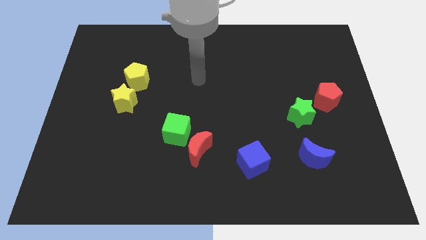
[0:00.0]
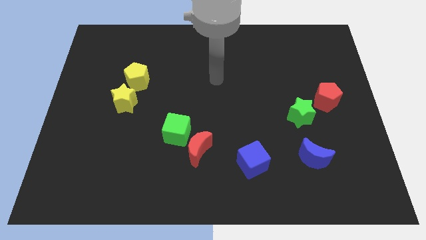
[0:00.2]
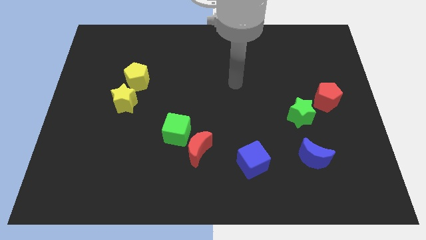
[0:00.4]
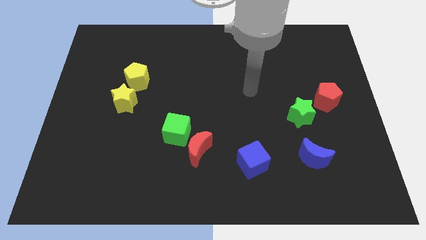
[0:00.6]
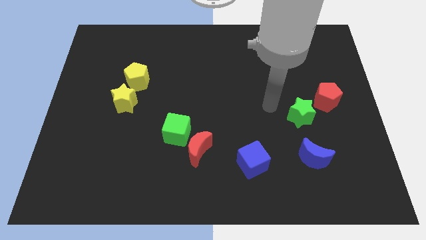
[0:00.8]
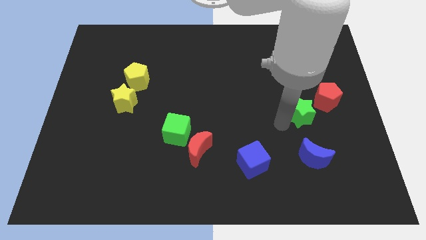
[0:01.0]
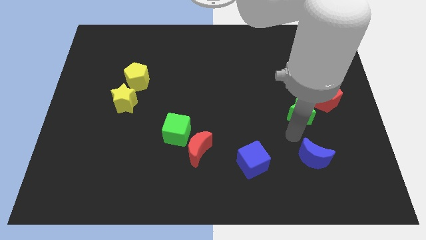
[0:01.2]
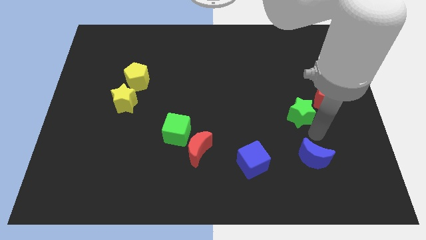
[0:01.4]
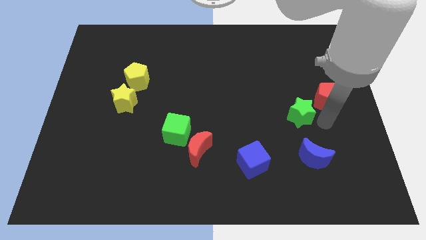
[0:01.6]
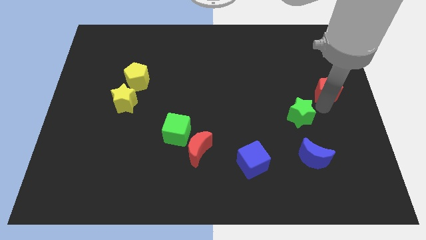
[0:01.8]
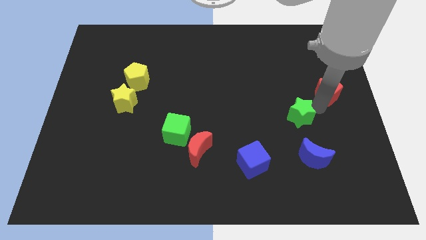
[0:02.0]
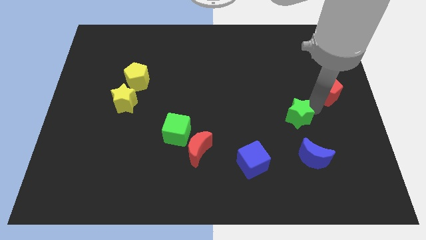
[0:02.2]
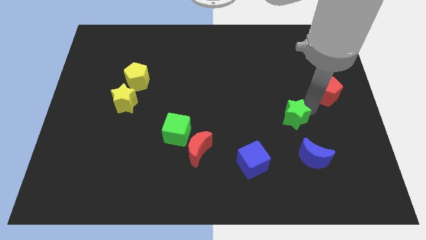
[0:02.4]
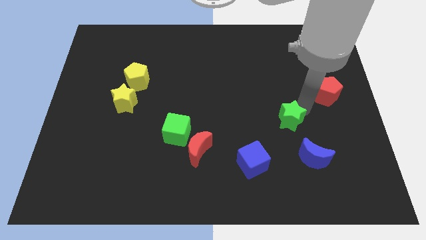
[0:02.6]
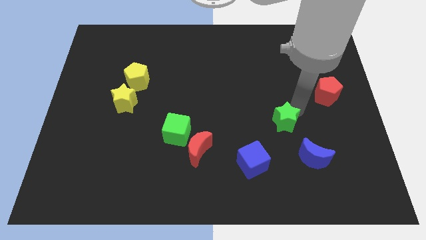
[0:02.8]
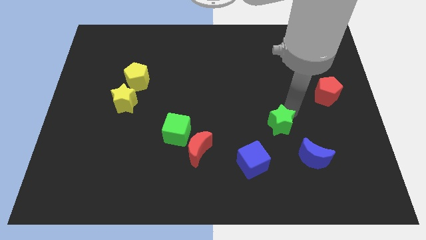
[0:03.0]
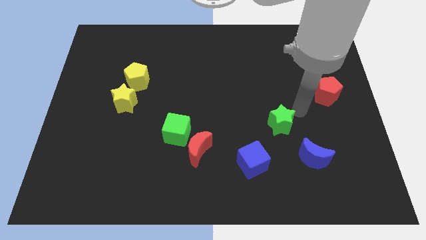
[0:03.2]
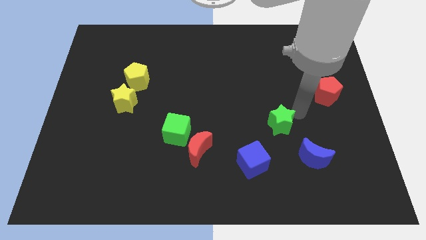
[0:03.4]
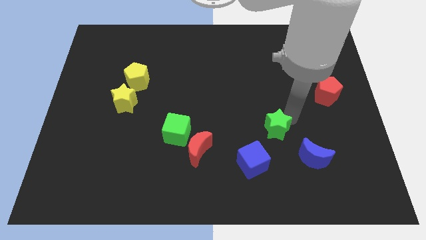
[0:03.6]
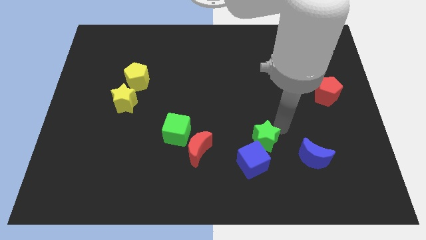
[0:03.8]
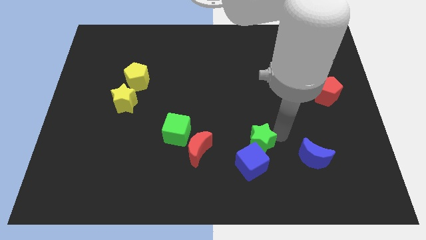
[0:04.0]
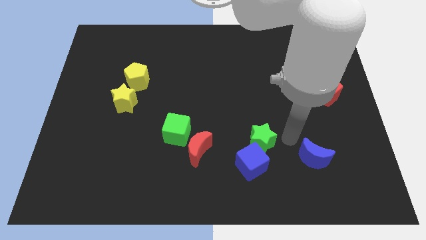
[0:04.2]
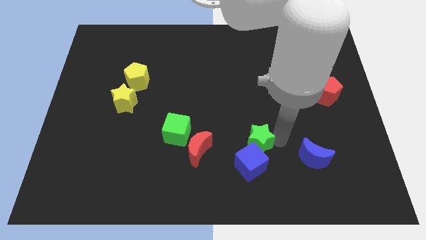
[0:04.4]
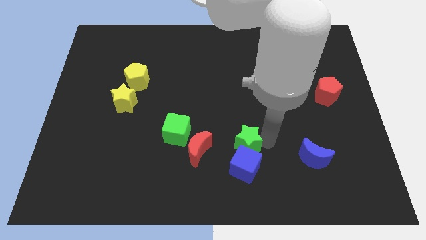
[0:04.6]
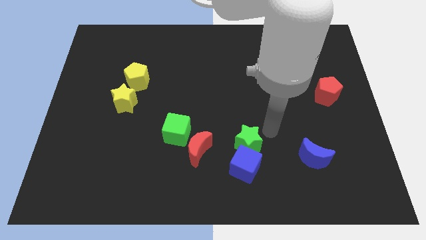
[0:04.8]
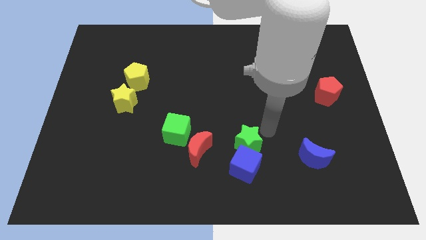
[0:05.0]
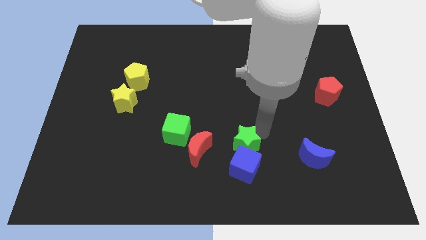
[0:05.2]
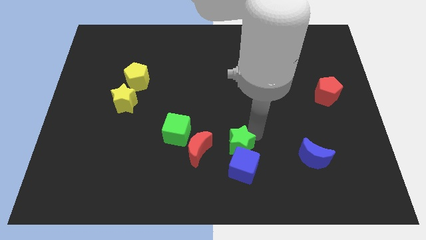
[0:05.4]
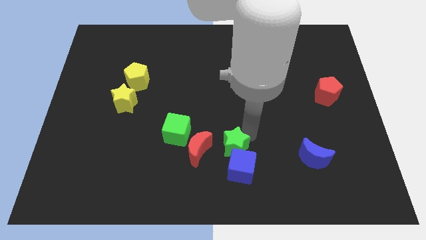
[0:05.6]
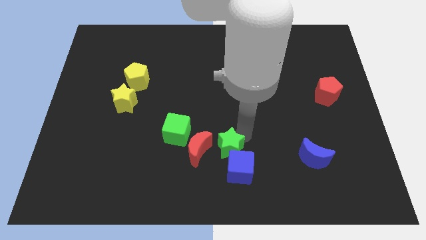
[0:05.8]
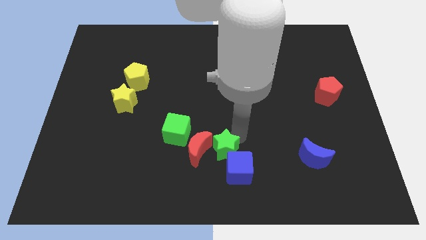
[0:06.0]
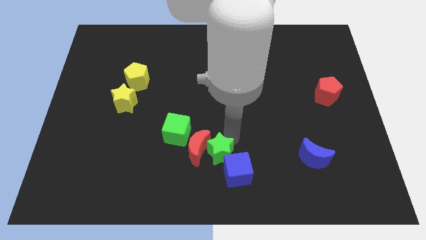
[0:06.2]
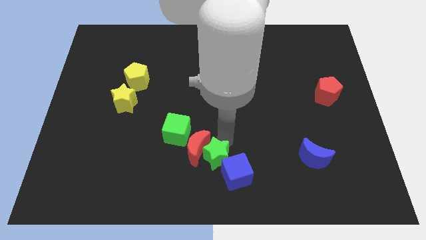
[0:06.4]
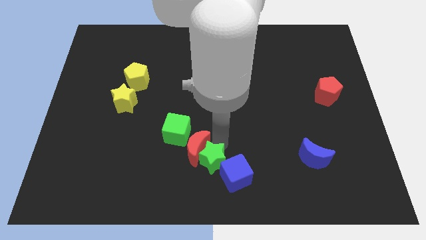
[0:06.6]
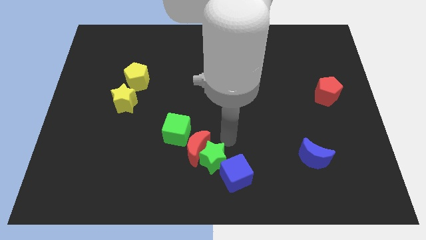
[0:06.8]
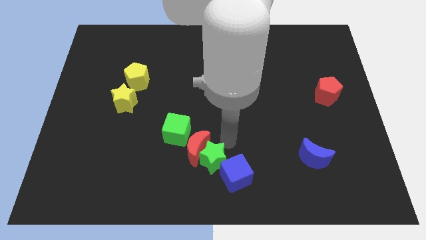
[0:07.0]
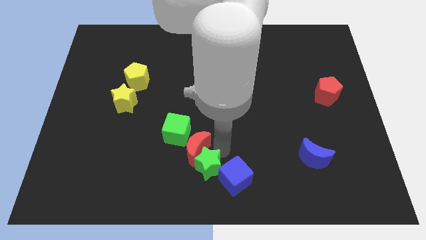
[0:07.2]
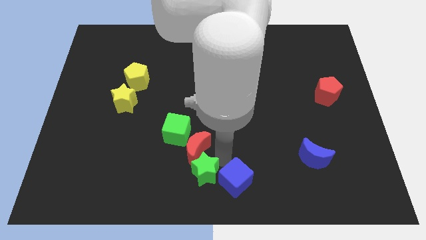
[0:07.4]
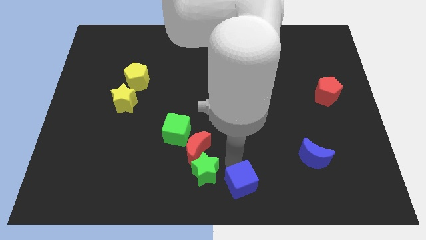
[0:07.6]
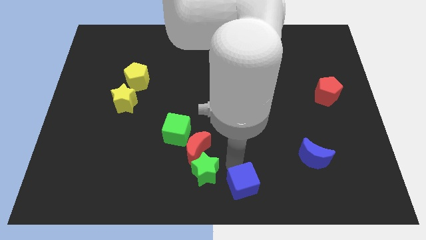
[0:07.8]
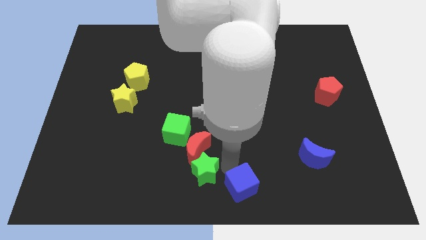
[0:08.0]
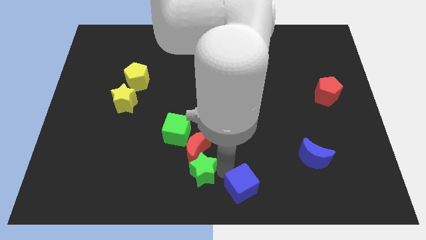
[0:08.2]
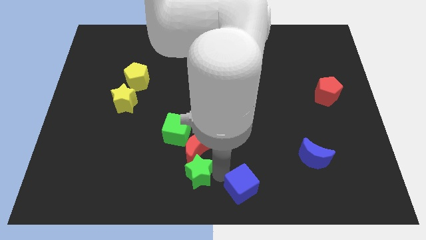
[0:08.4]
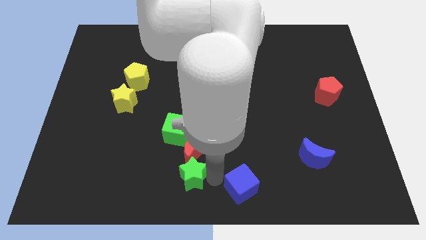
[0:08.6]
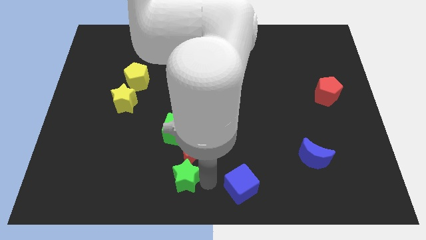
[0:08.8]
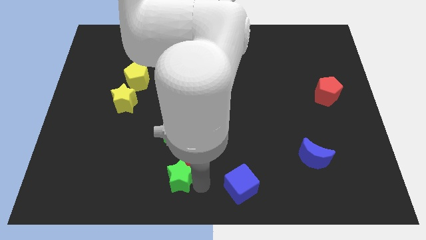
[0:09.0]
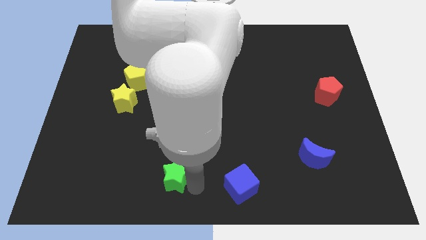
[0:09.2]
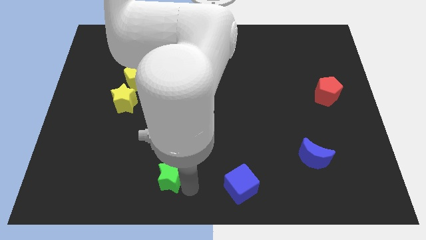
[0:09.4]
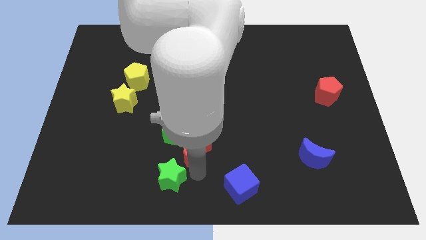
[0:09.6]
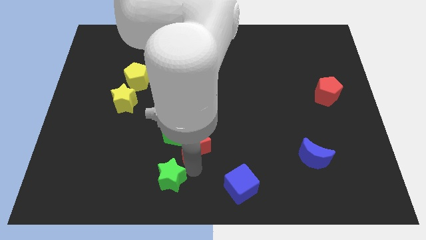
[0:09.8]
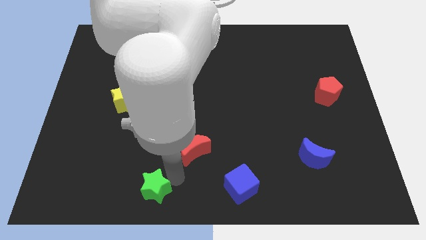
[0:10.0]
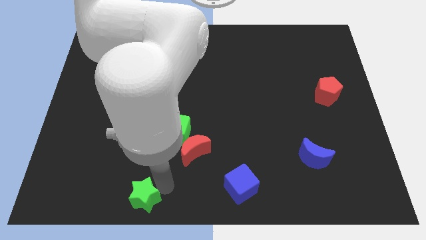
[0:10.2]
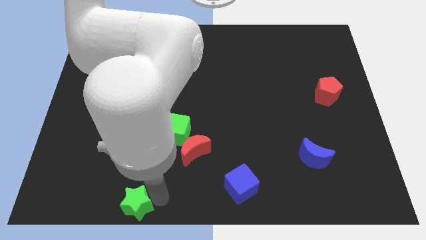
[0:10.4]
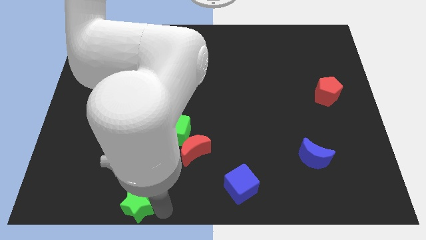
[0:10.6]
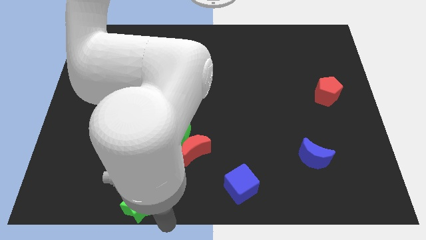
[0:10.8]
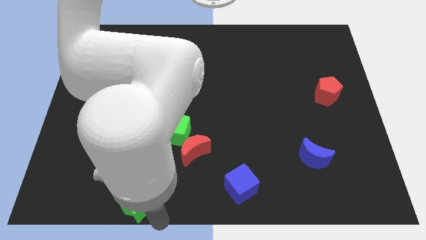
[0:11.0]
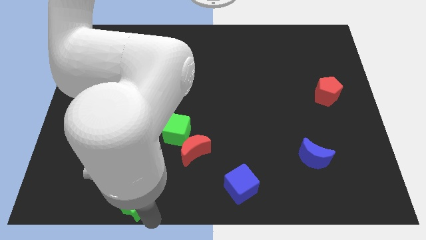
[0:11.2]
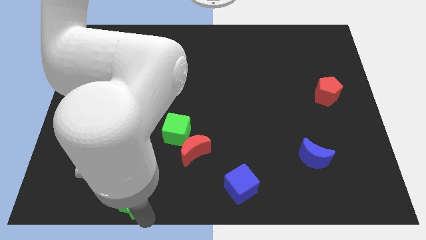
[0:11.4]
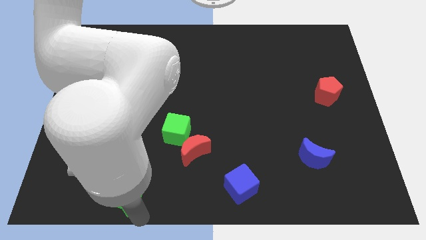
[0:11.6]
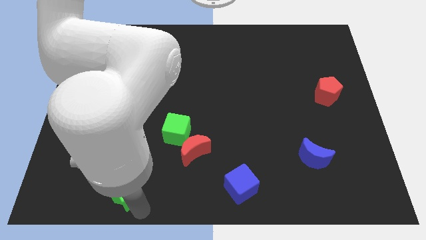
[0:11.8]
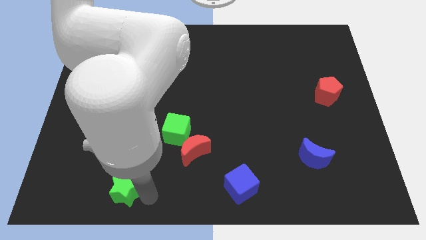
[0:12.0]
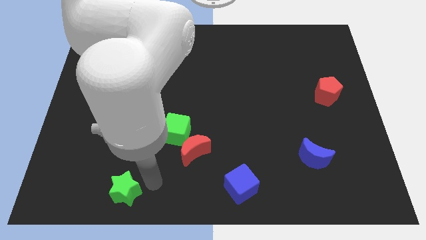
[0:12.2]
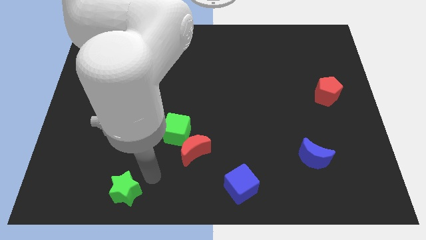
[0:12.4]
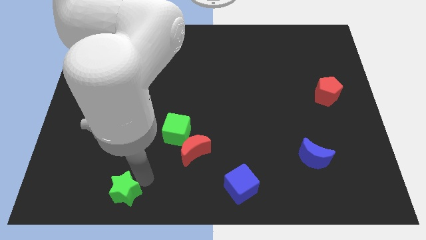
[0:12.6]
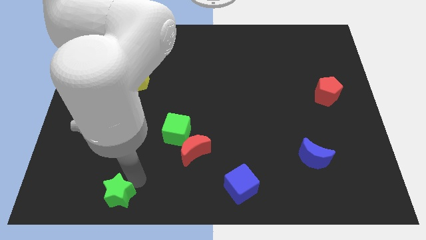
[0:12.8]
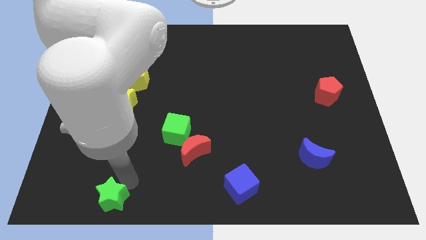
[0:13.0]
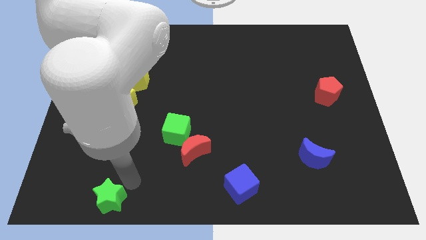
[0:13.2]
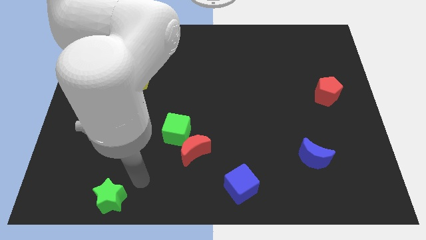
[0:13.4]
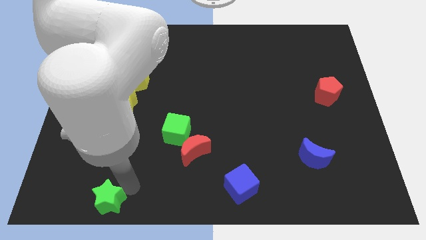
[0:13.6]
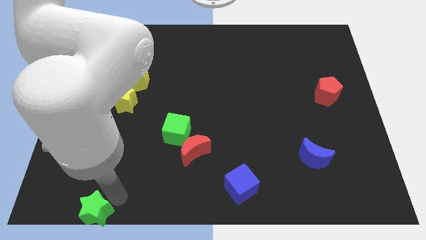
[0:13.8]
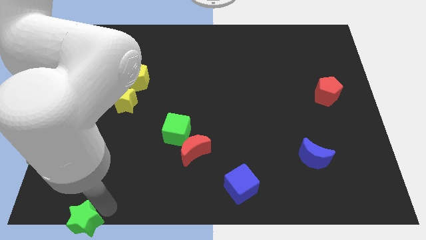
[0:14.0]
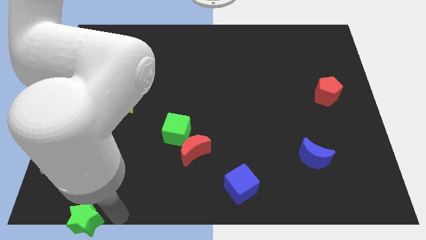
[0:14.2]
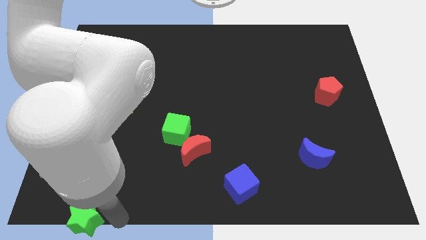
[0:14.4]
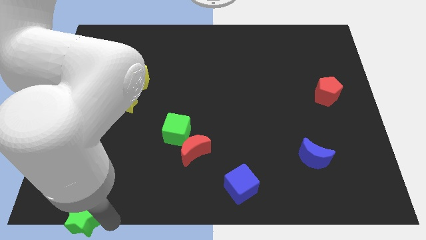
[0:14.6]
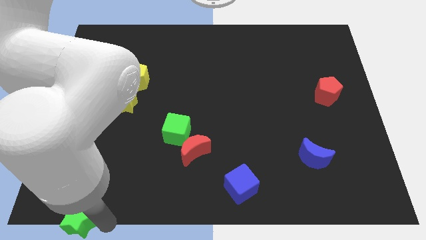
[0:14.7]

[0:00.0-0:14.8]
put the green star to the lower left corner
